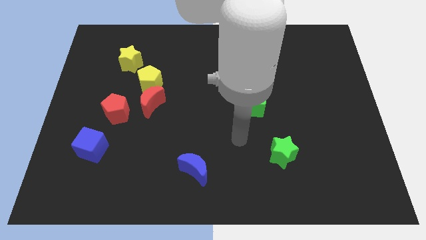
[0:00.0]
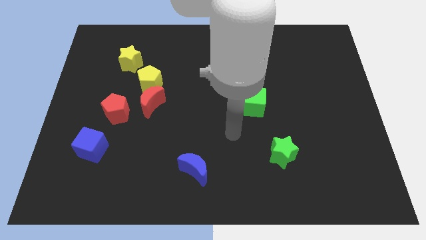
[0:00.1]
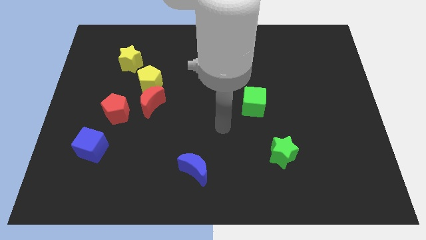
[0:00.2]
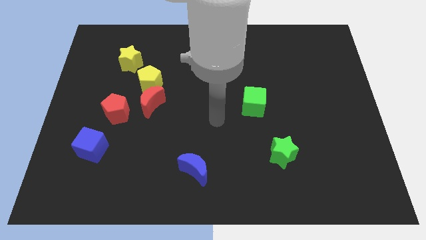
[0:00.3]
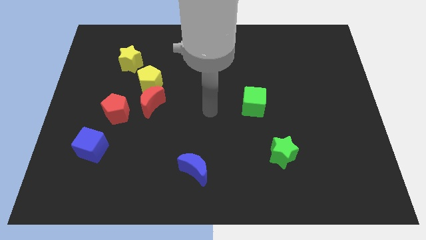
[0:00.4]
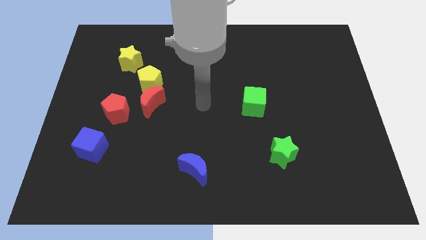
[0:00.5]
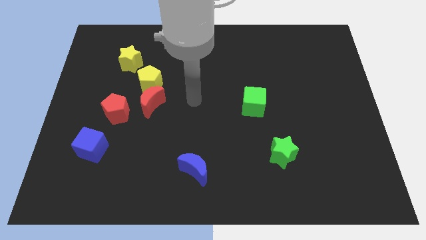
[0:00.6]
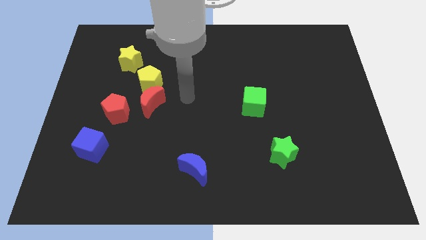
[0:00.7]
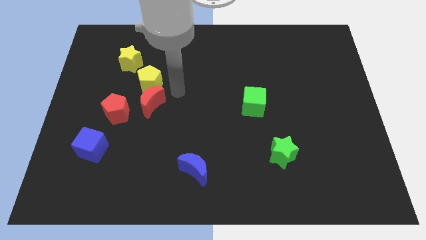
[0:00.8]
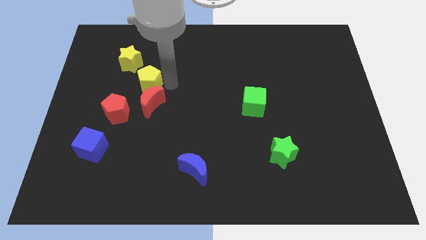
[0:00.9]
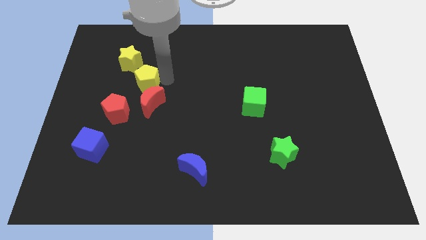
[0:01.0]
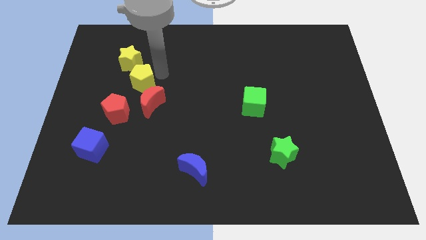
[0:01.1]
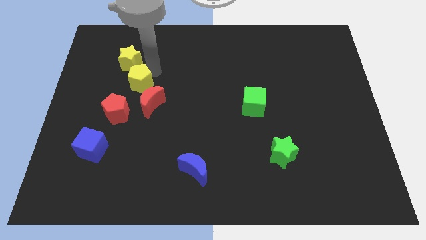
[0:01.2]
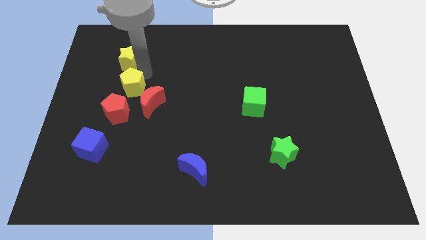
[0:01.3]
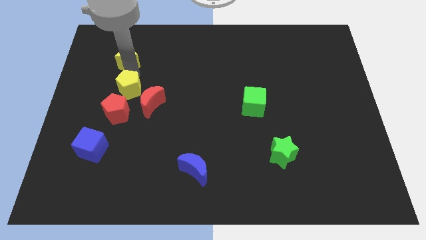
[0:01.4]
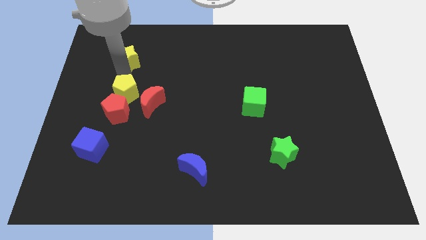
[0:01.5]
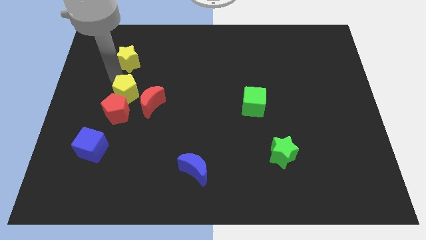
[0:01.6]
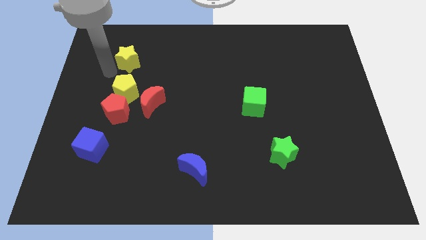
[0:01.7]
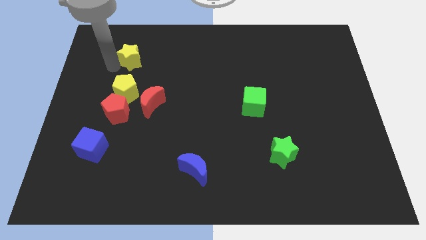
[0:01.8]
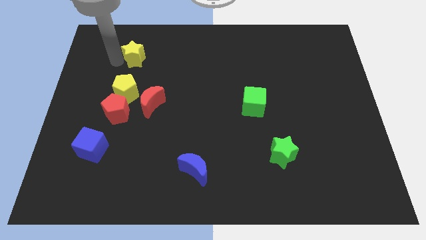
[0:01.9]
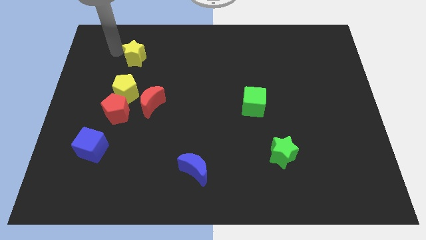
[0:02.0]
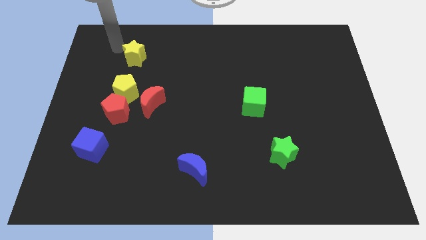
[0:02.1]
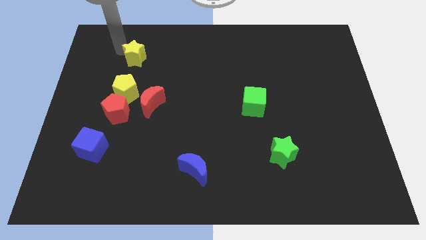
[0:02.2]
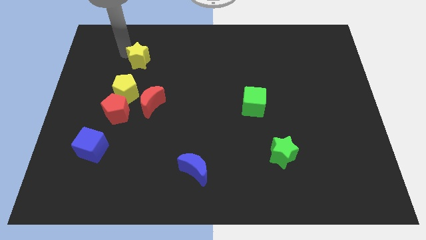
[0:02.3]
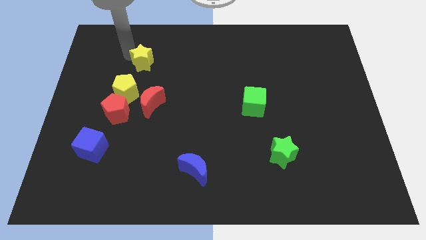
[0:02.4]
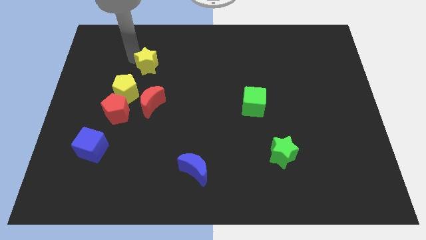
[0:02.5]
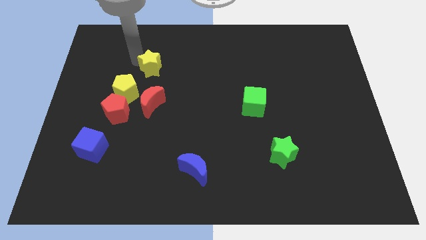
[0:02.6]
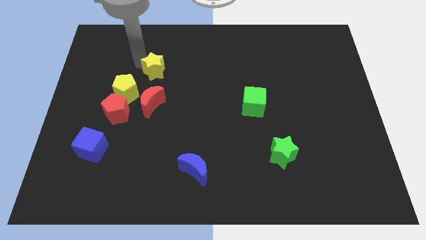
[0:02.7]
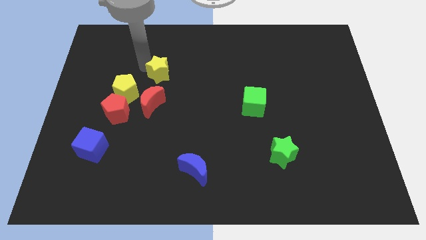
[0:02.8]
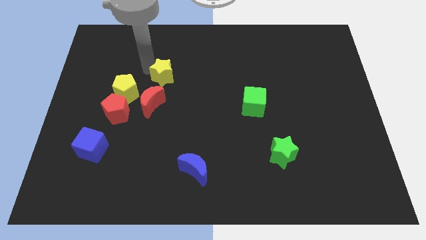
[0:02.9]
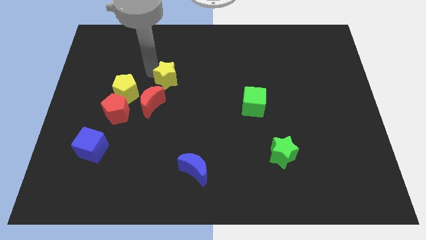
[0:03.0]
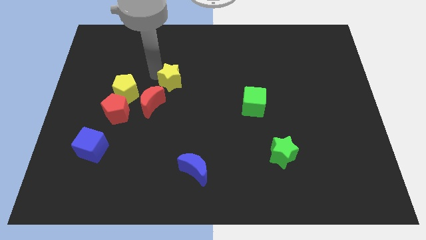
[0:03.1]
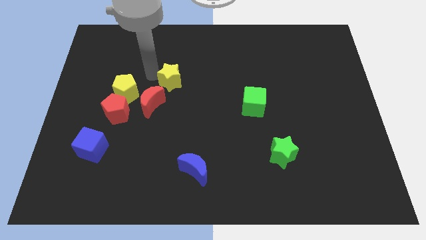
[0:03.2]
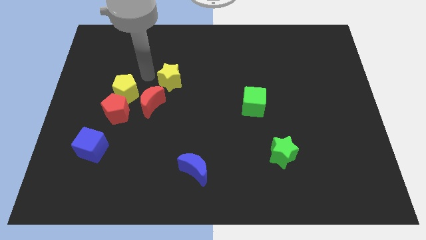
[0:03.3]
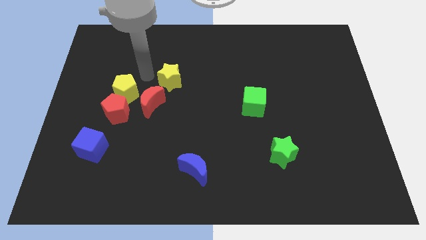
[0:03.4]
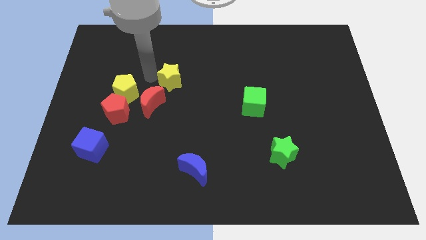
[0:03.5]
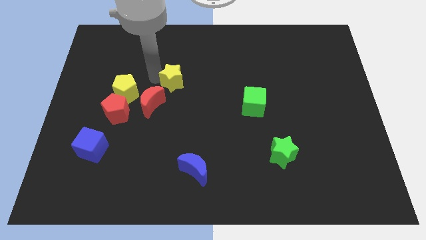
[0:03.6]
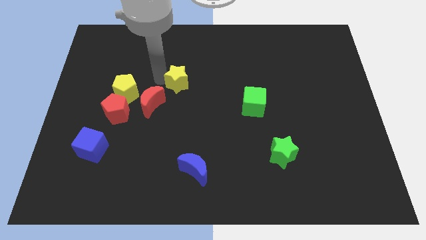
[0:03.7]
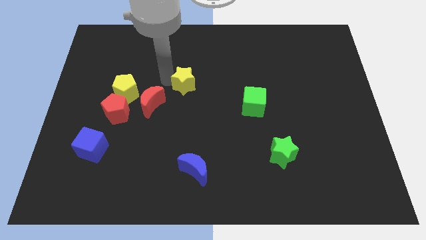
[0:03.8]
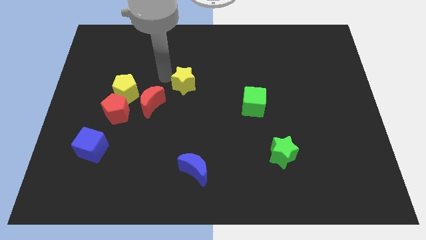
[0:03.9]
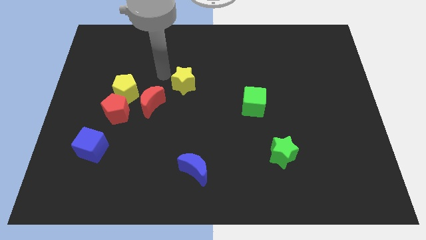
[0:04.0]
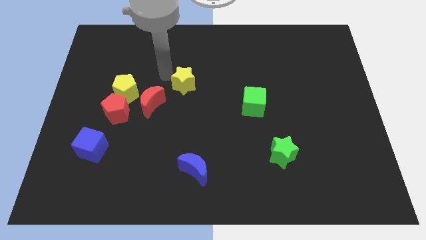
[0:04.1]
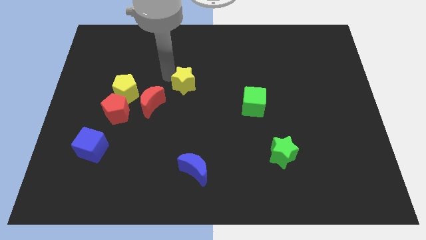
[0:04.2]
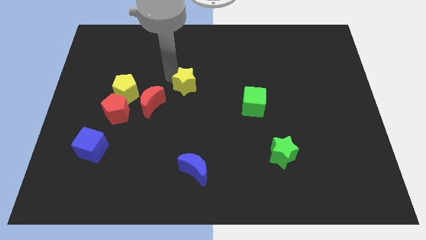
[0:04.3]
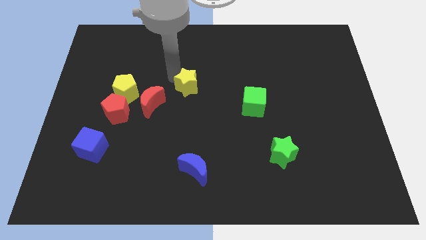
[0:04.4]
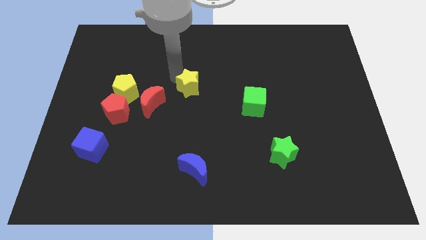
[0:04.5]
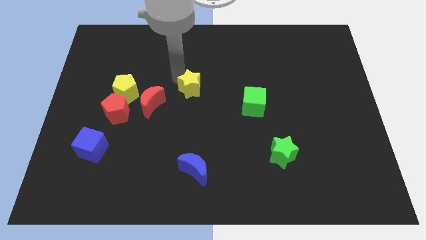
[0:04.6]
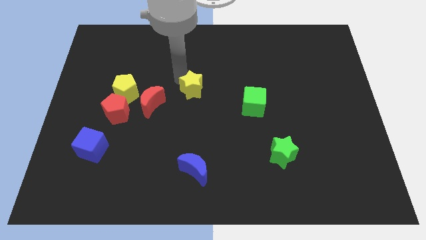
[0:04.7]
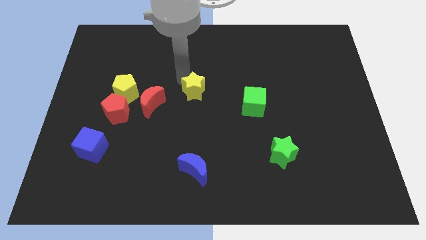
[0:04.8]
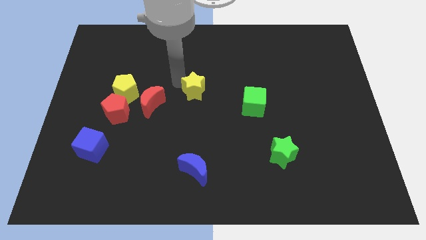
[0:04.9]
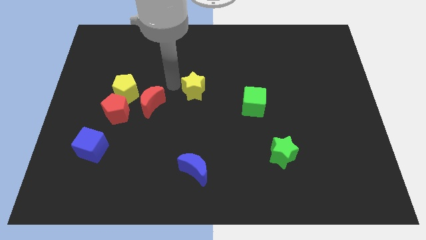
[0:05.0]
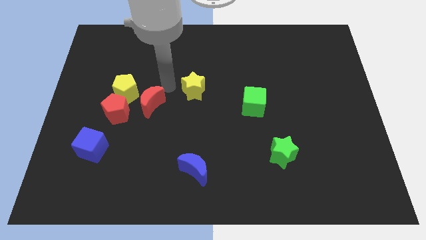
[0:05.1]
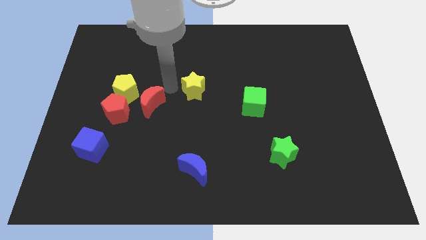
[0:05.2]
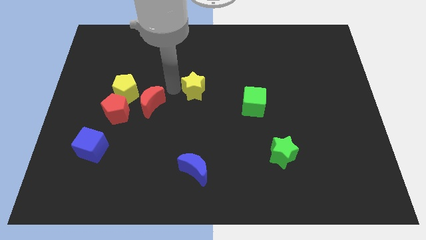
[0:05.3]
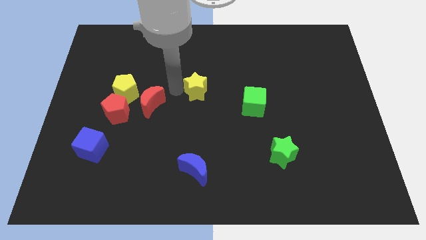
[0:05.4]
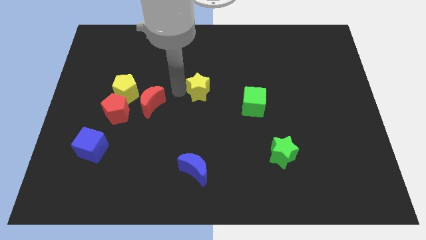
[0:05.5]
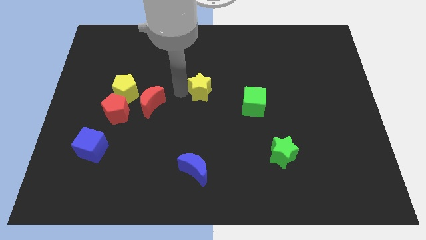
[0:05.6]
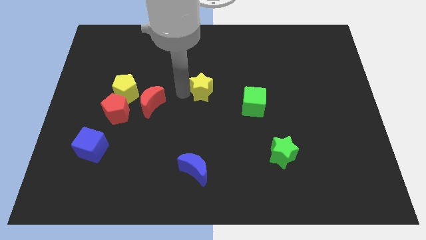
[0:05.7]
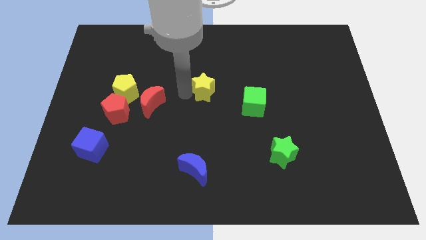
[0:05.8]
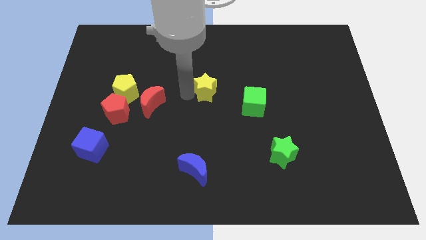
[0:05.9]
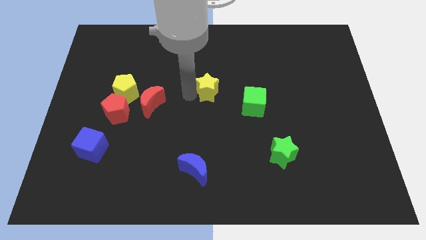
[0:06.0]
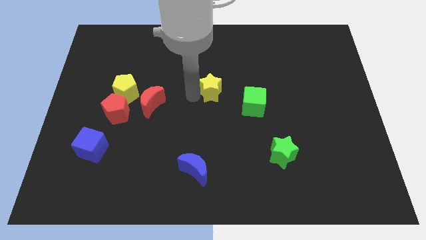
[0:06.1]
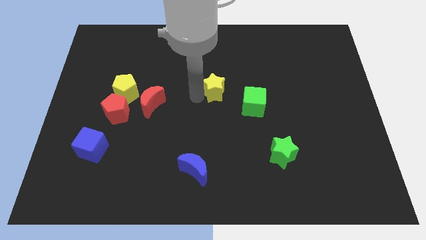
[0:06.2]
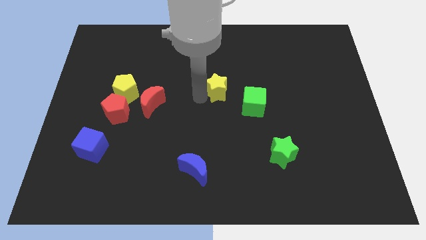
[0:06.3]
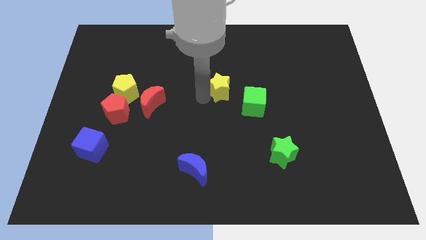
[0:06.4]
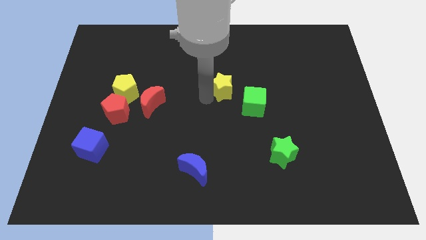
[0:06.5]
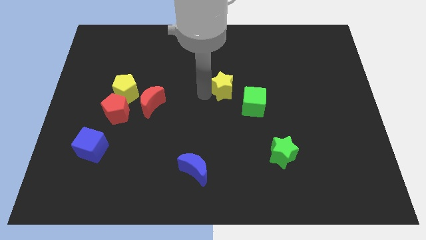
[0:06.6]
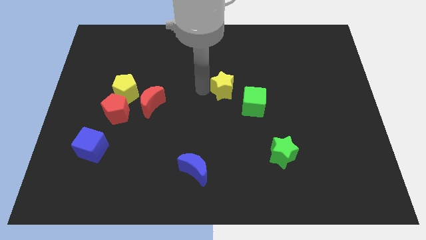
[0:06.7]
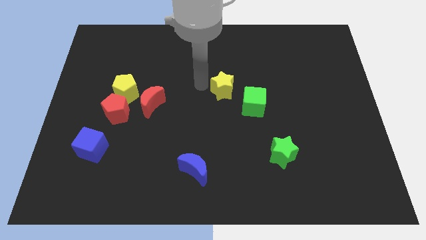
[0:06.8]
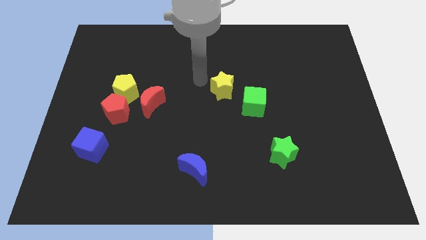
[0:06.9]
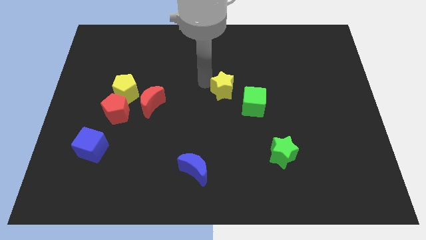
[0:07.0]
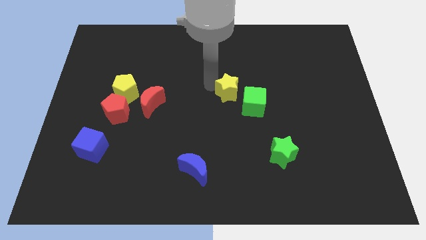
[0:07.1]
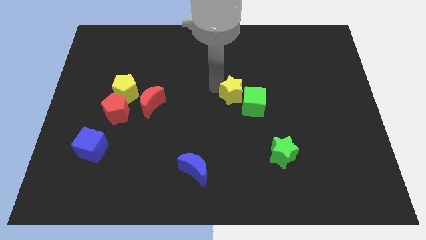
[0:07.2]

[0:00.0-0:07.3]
slide the yellow star next to the green cube
